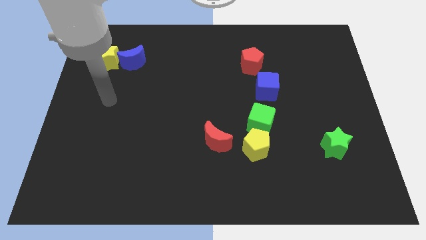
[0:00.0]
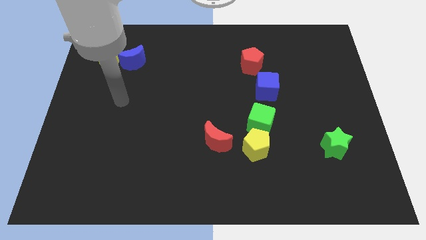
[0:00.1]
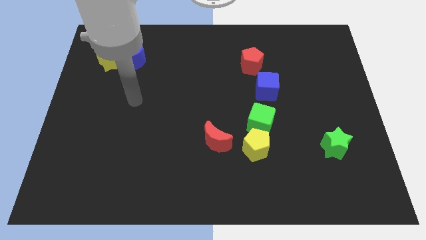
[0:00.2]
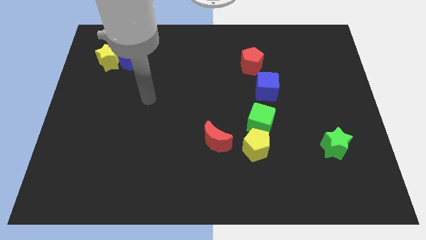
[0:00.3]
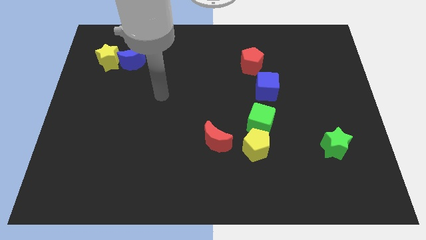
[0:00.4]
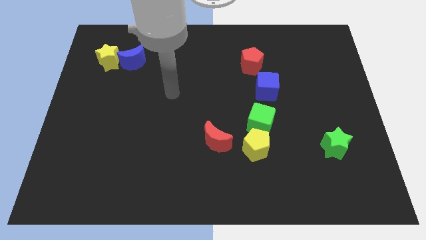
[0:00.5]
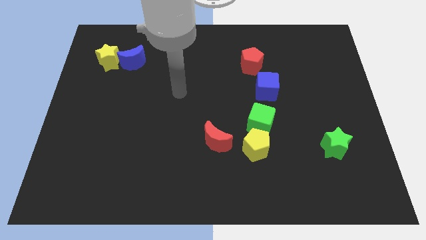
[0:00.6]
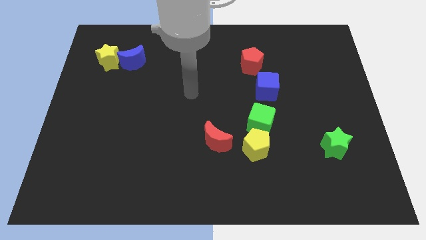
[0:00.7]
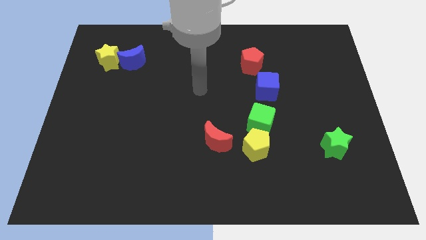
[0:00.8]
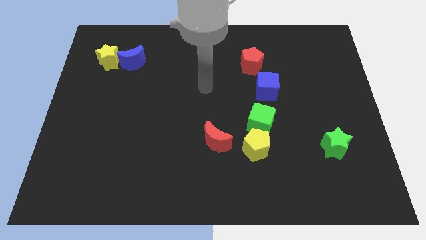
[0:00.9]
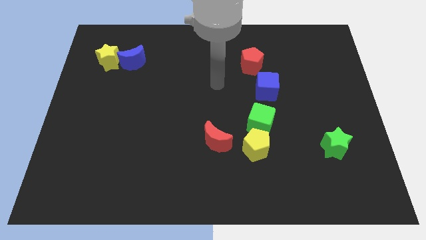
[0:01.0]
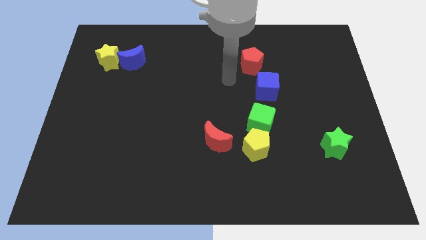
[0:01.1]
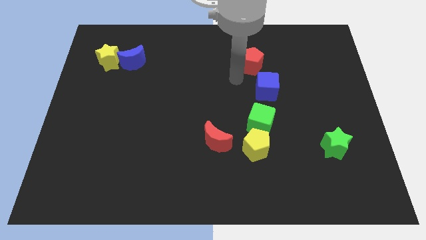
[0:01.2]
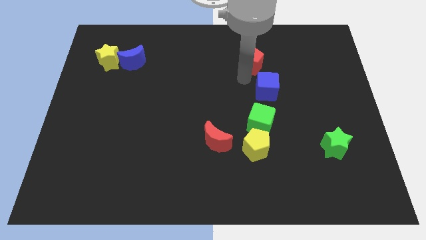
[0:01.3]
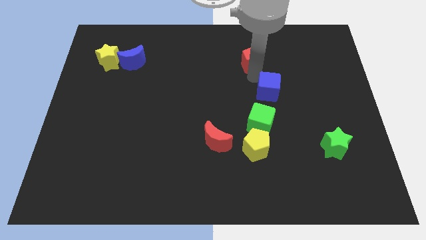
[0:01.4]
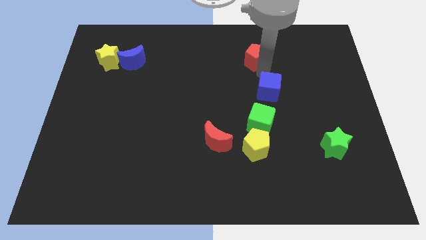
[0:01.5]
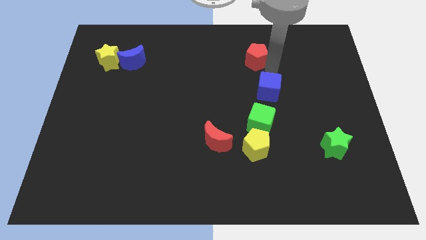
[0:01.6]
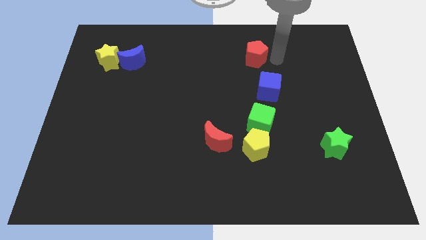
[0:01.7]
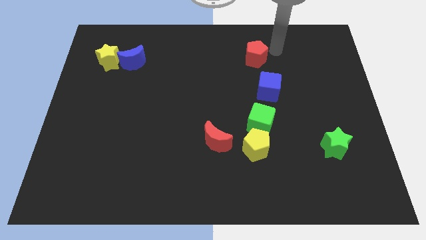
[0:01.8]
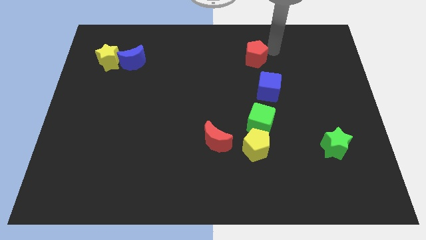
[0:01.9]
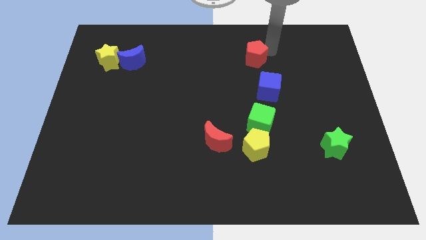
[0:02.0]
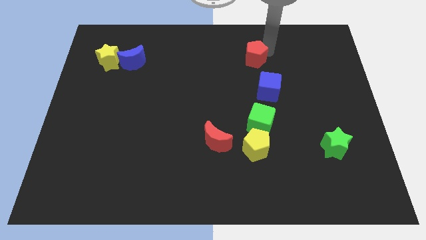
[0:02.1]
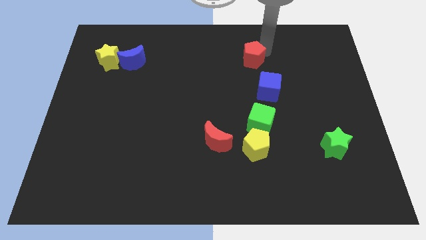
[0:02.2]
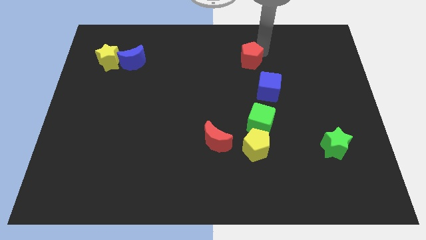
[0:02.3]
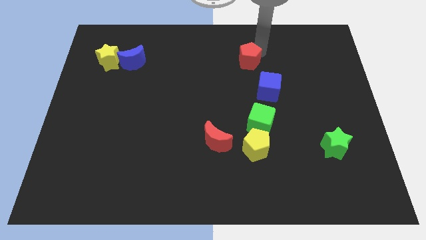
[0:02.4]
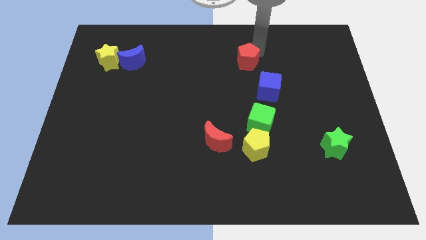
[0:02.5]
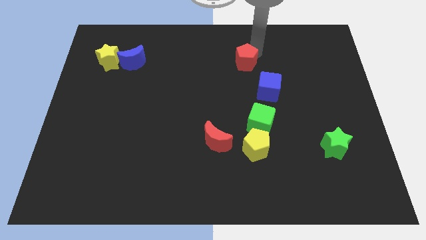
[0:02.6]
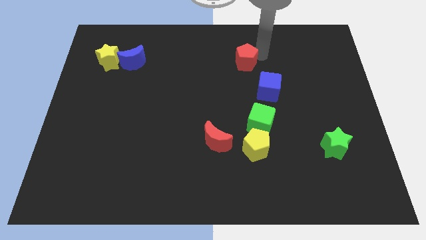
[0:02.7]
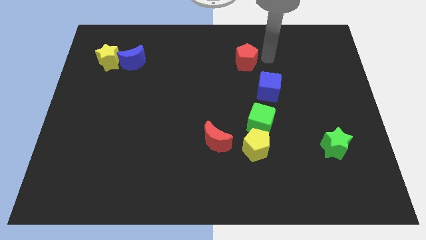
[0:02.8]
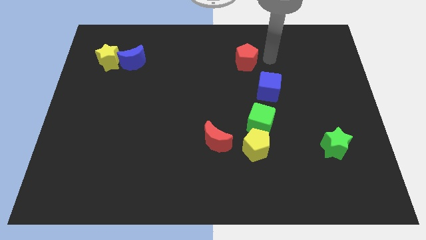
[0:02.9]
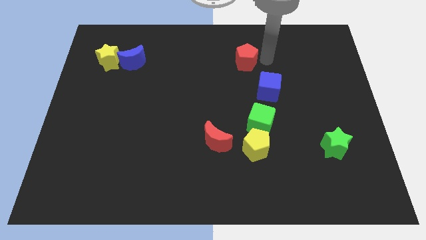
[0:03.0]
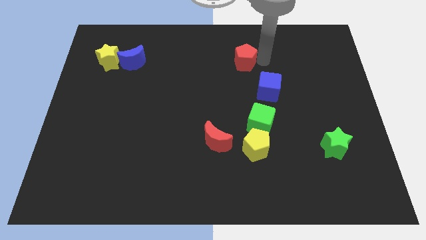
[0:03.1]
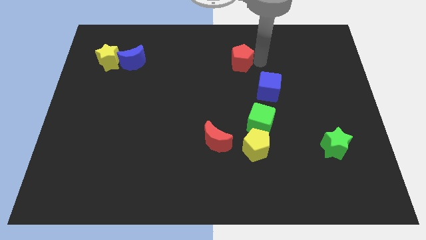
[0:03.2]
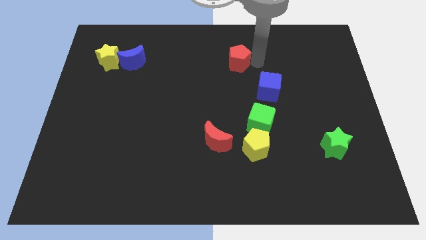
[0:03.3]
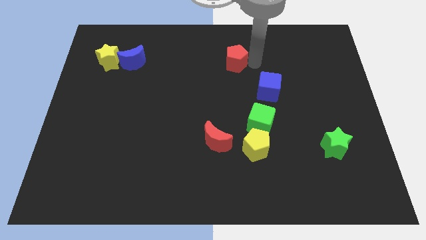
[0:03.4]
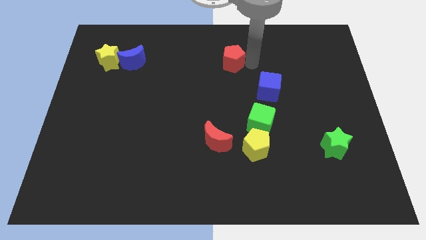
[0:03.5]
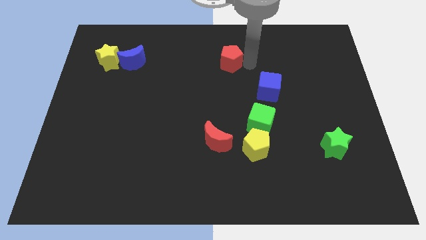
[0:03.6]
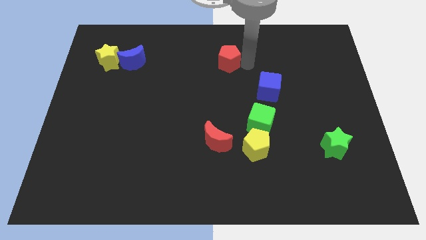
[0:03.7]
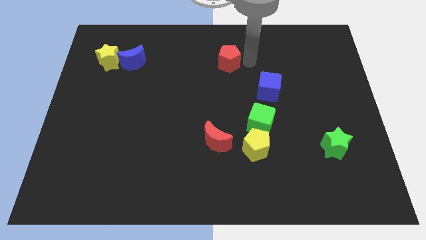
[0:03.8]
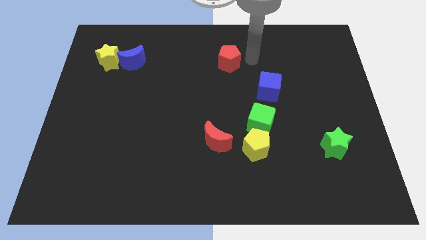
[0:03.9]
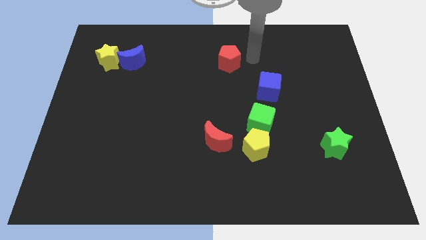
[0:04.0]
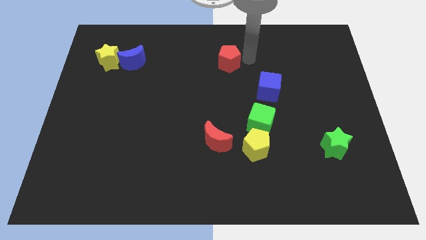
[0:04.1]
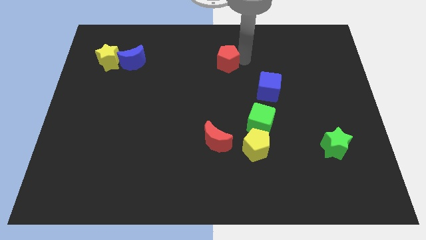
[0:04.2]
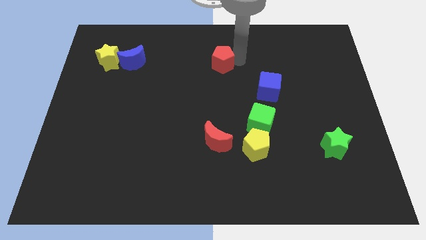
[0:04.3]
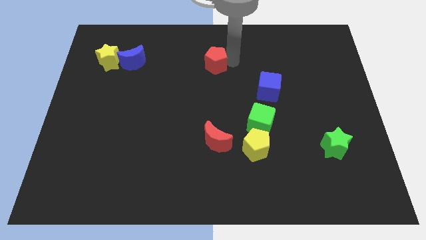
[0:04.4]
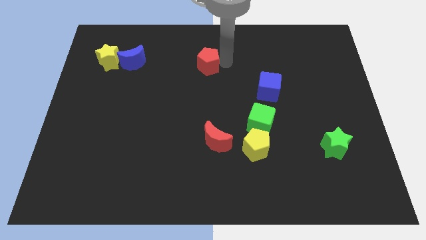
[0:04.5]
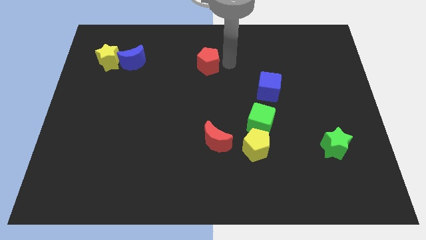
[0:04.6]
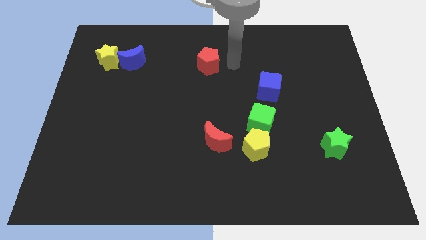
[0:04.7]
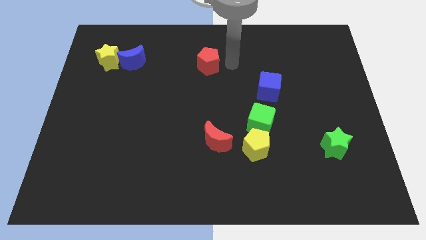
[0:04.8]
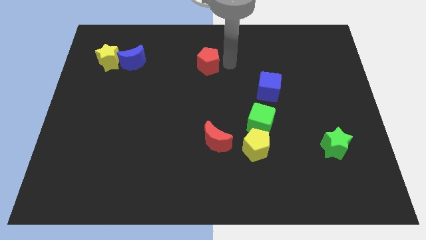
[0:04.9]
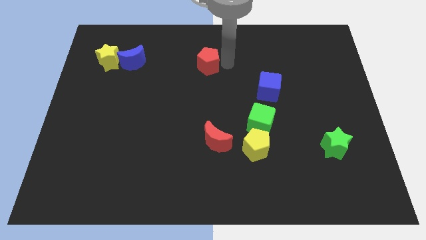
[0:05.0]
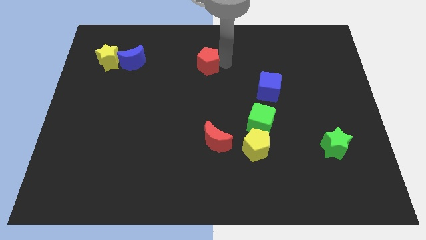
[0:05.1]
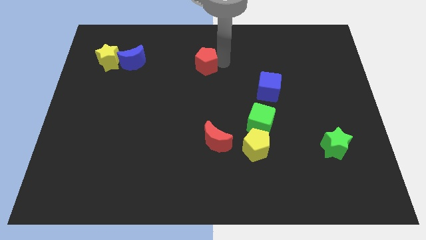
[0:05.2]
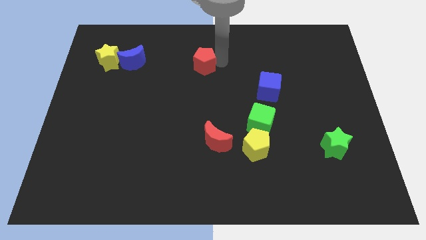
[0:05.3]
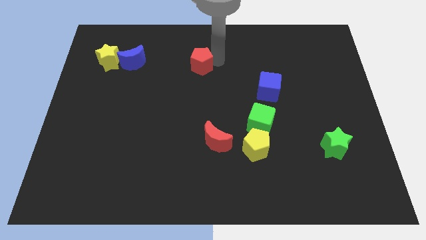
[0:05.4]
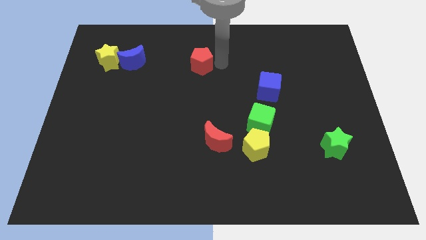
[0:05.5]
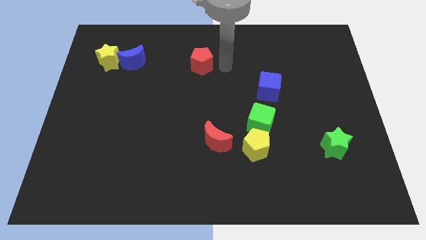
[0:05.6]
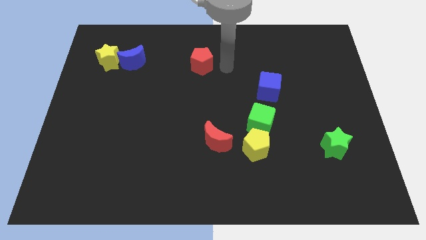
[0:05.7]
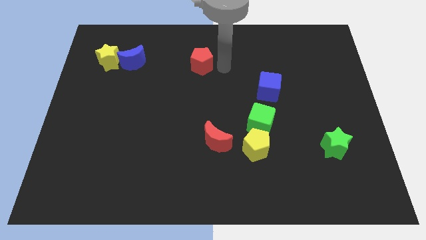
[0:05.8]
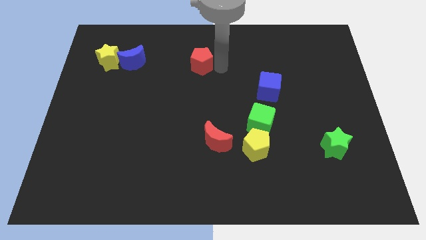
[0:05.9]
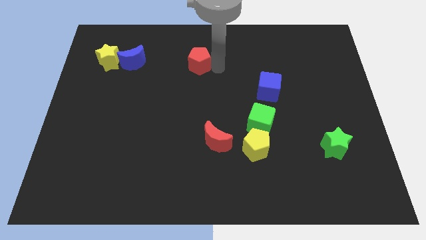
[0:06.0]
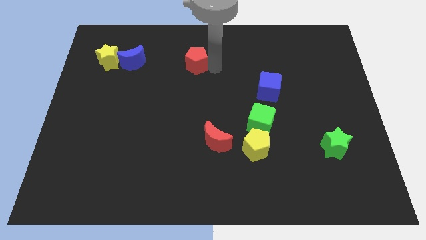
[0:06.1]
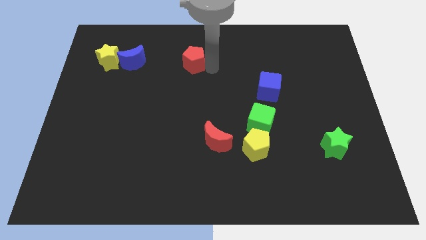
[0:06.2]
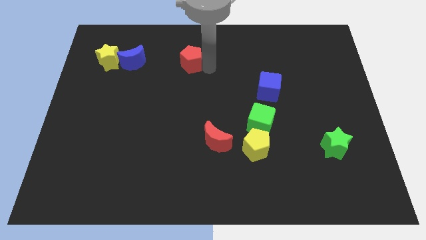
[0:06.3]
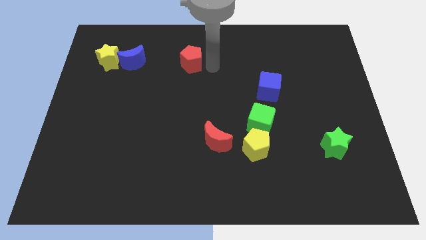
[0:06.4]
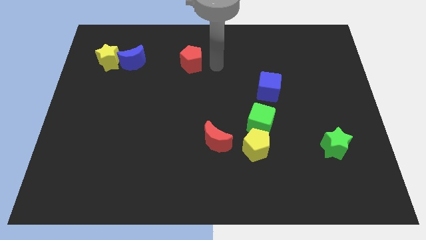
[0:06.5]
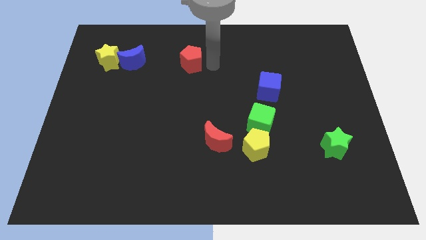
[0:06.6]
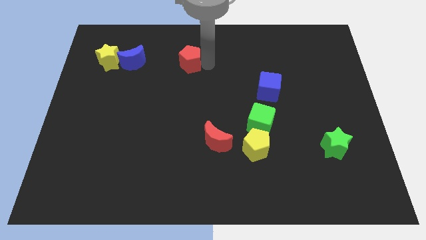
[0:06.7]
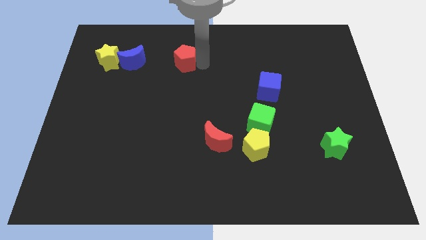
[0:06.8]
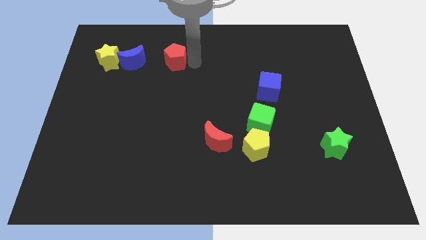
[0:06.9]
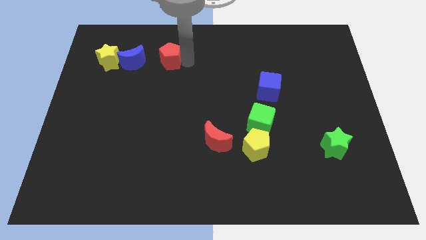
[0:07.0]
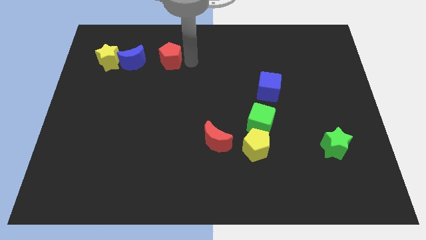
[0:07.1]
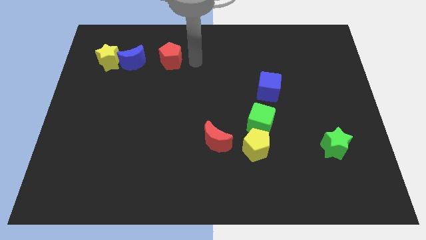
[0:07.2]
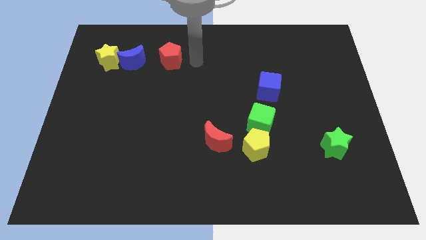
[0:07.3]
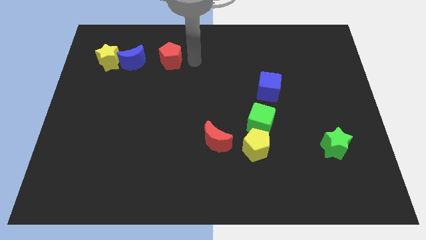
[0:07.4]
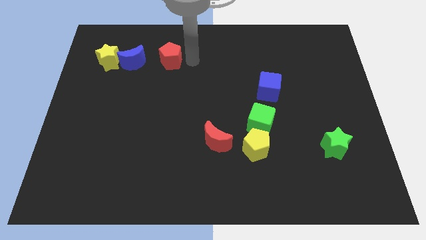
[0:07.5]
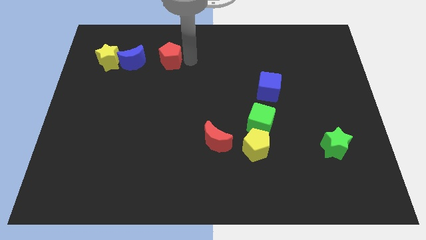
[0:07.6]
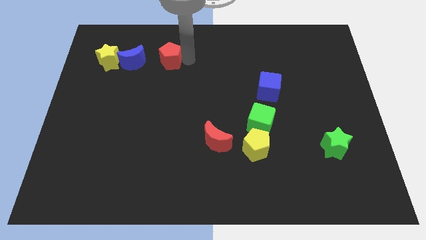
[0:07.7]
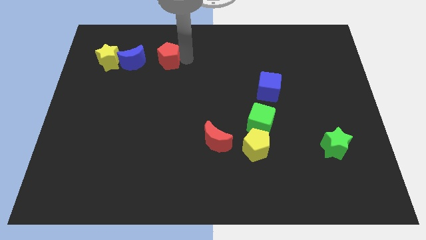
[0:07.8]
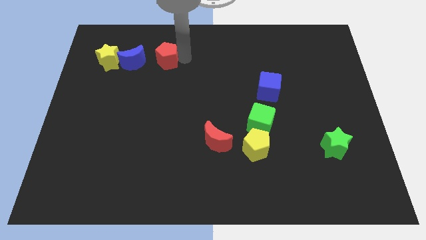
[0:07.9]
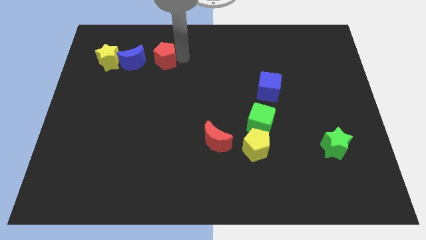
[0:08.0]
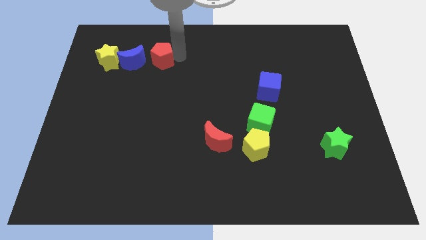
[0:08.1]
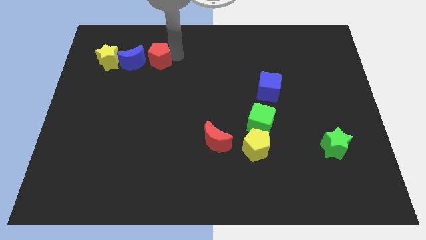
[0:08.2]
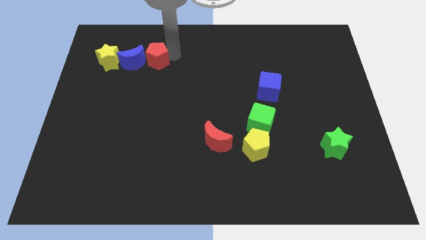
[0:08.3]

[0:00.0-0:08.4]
push the red pentagon next to the blue moon
